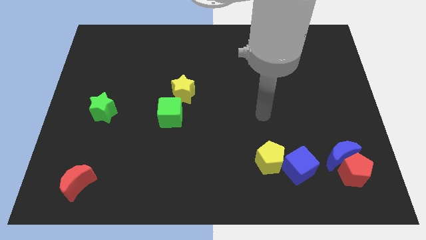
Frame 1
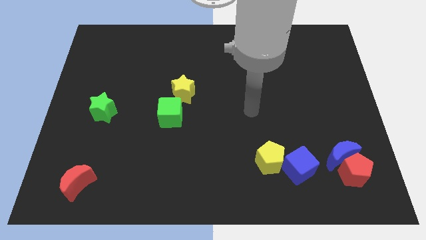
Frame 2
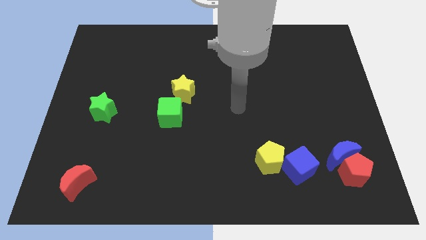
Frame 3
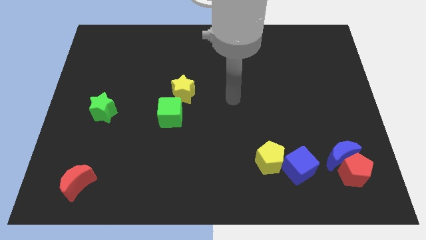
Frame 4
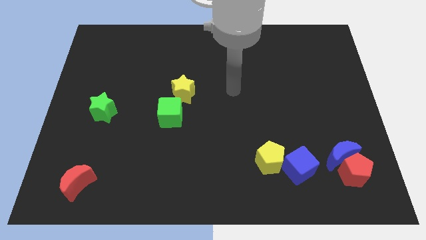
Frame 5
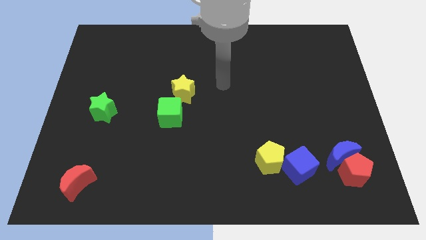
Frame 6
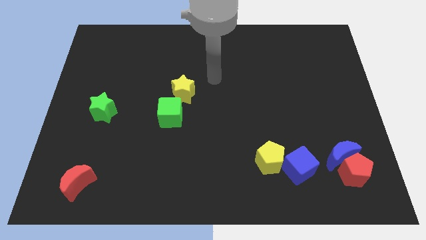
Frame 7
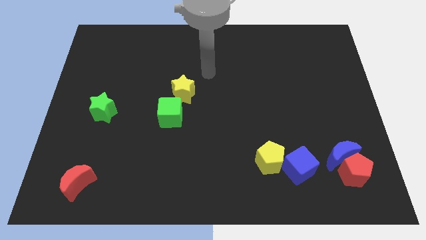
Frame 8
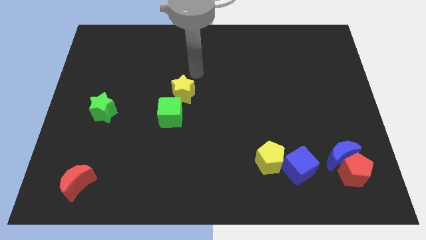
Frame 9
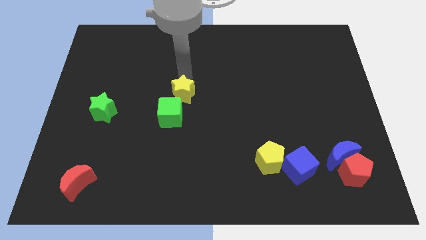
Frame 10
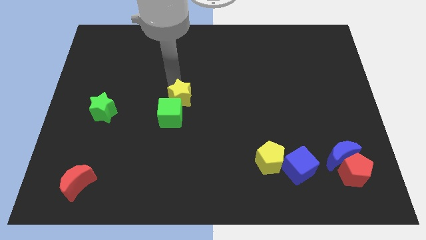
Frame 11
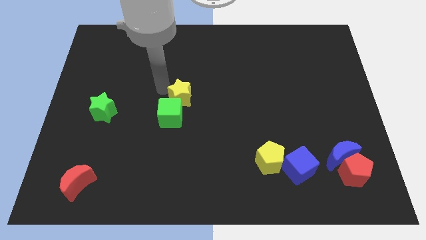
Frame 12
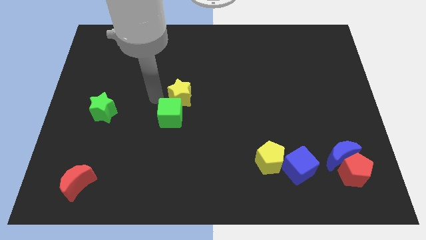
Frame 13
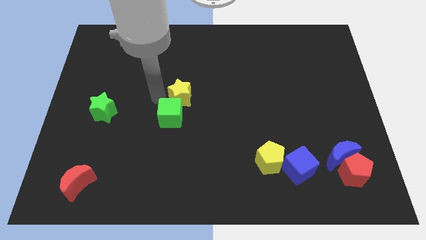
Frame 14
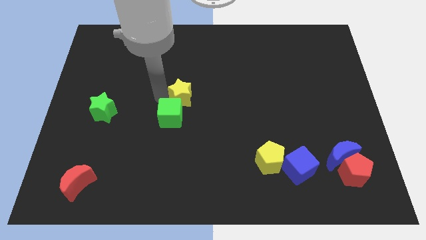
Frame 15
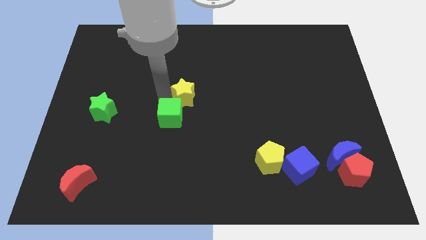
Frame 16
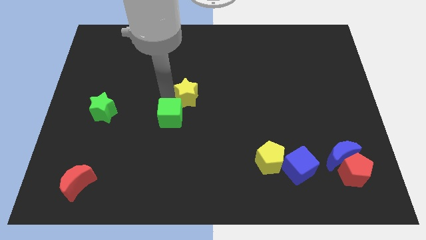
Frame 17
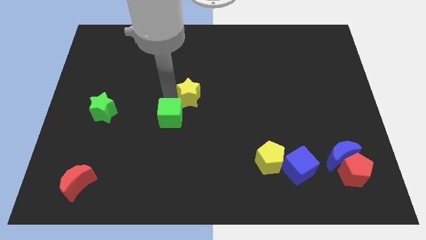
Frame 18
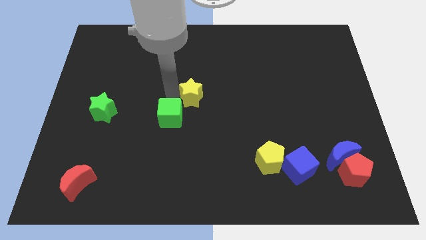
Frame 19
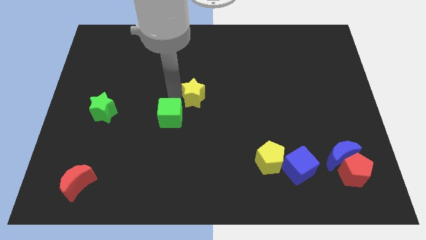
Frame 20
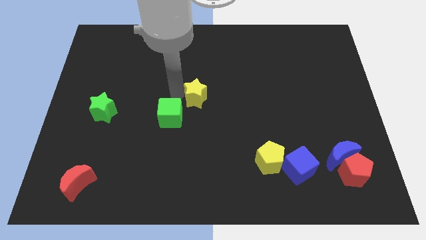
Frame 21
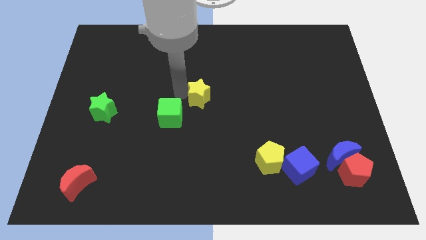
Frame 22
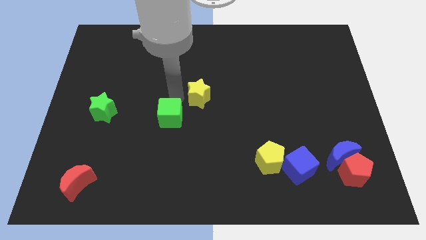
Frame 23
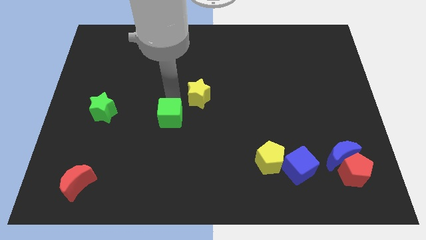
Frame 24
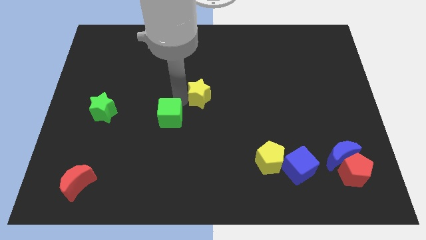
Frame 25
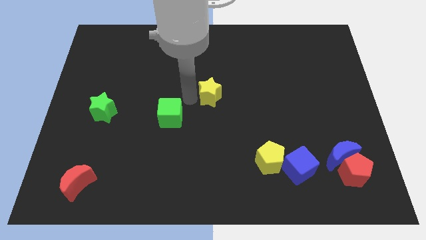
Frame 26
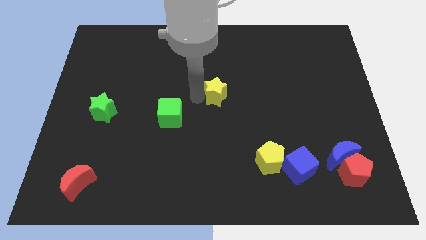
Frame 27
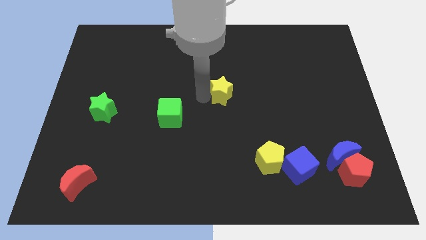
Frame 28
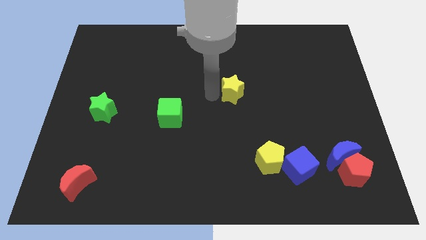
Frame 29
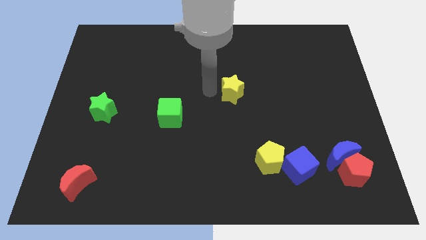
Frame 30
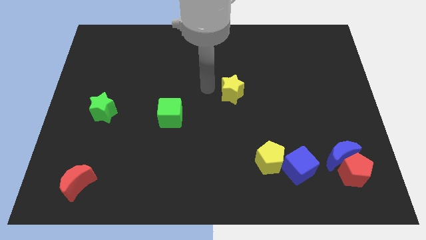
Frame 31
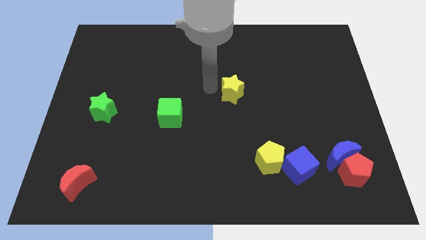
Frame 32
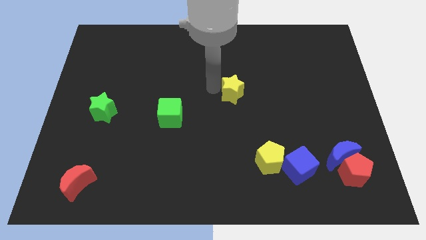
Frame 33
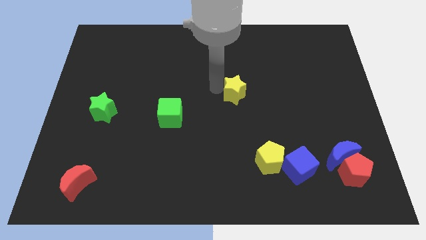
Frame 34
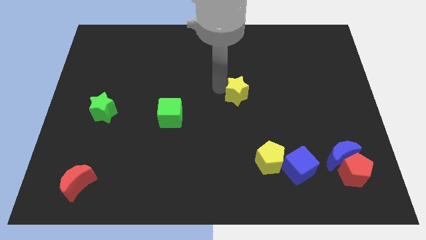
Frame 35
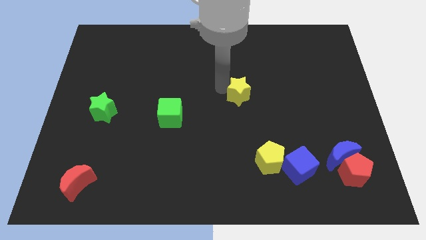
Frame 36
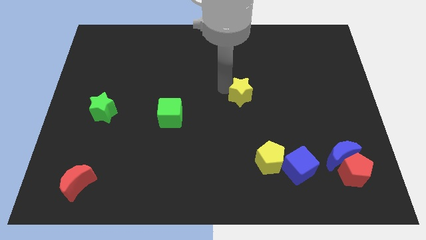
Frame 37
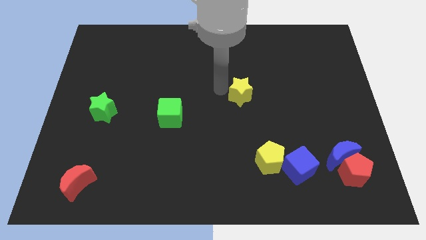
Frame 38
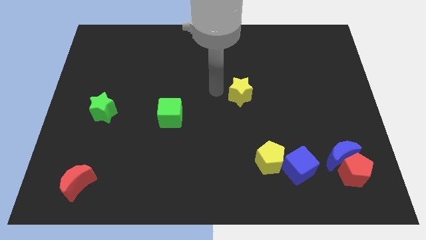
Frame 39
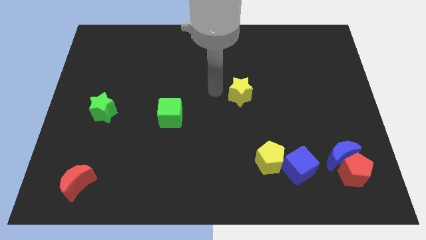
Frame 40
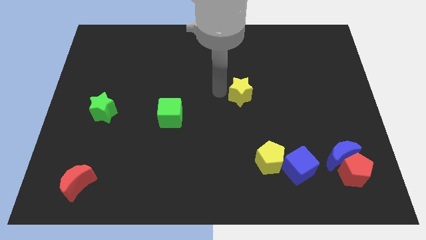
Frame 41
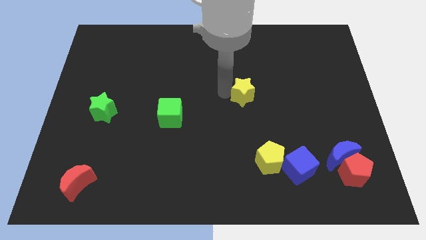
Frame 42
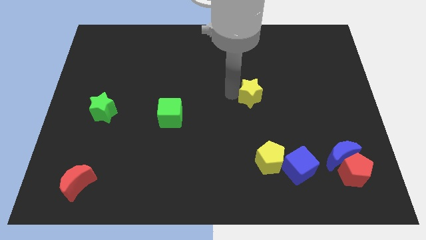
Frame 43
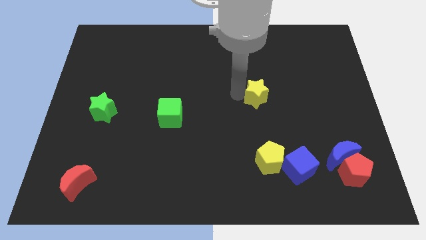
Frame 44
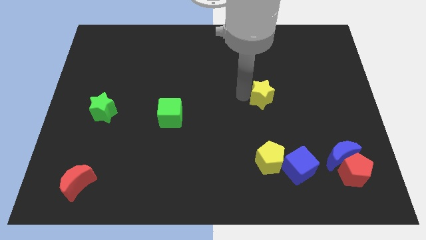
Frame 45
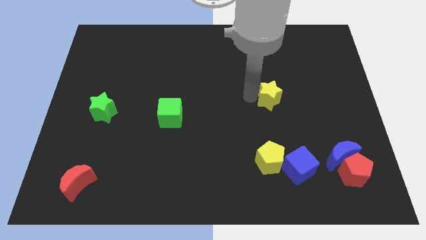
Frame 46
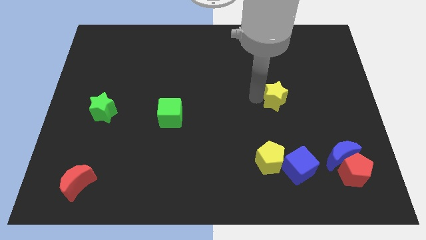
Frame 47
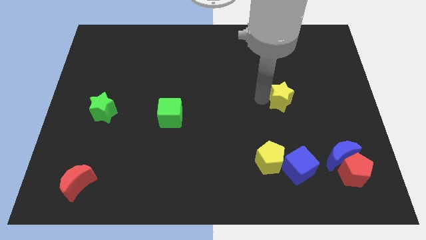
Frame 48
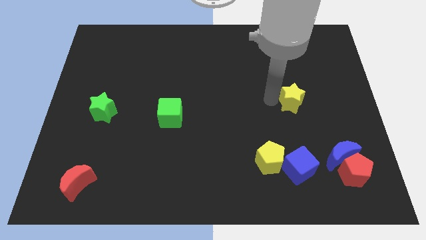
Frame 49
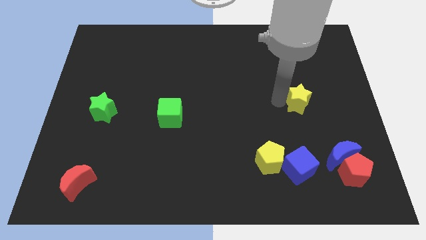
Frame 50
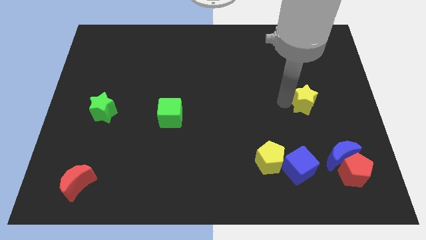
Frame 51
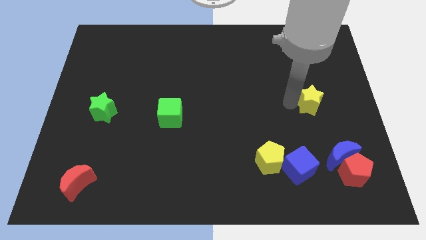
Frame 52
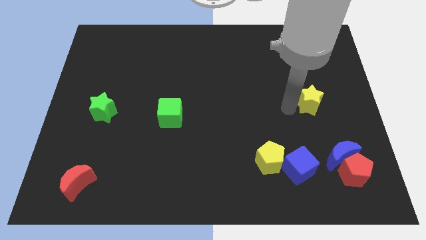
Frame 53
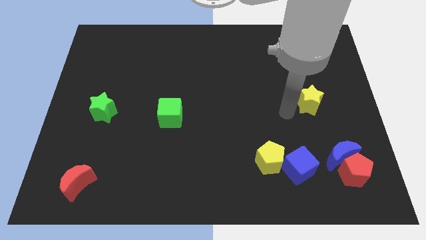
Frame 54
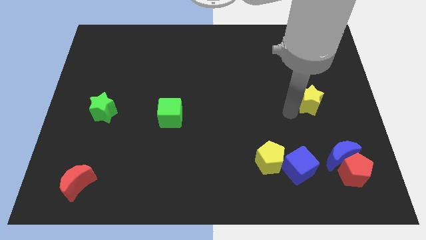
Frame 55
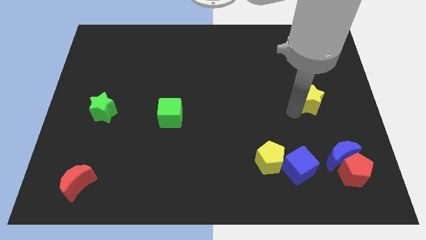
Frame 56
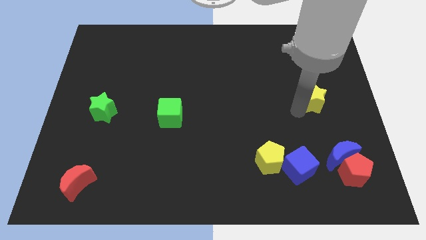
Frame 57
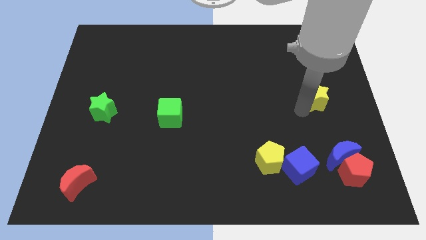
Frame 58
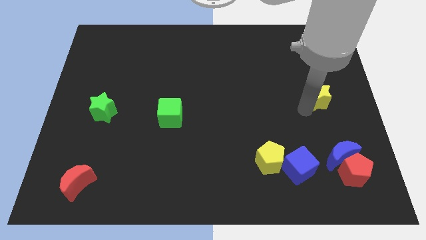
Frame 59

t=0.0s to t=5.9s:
push the yellow star to the center right
